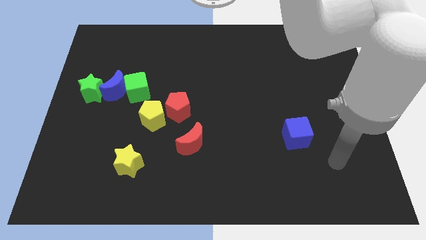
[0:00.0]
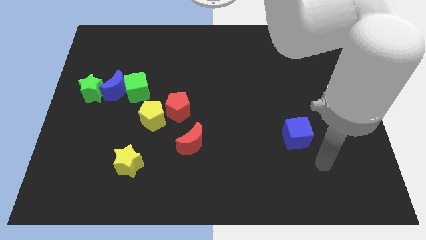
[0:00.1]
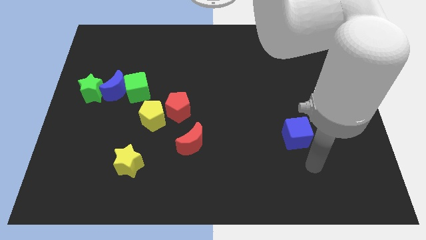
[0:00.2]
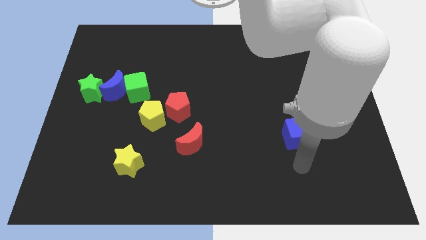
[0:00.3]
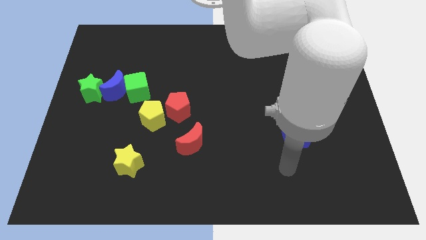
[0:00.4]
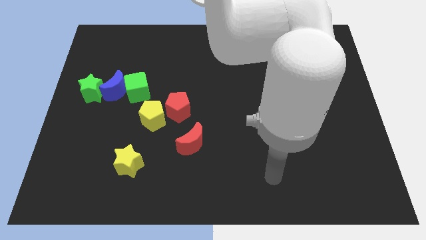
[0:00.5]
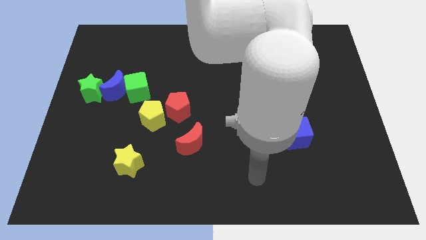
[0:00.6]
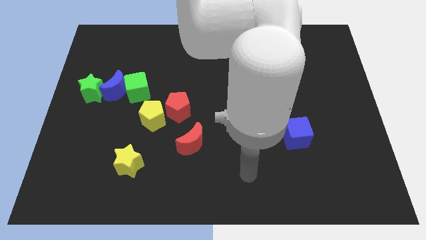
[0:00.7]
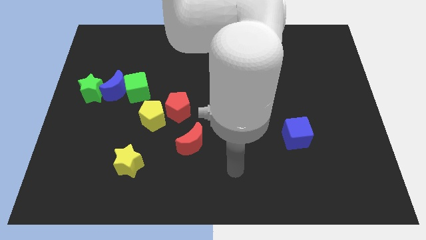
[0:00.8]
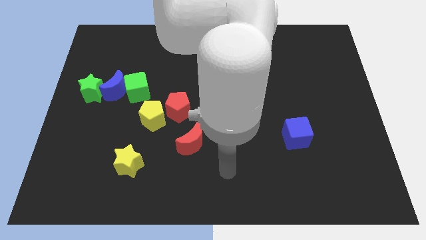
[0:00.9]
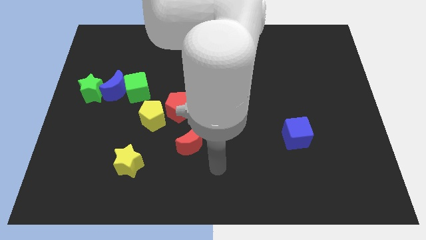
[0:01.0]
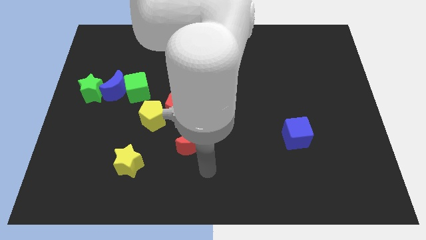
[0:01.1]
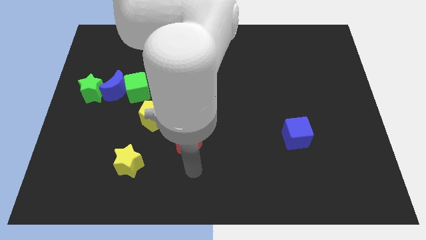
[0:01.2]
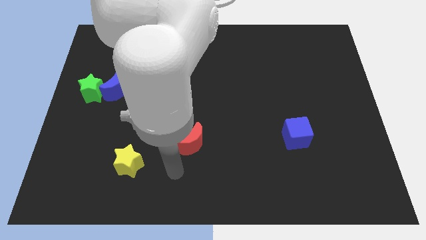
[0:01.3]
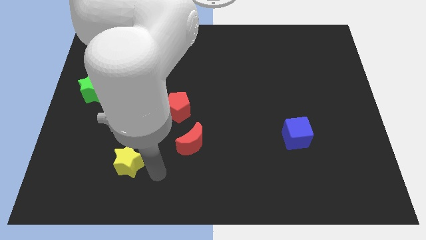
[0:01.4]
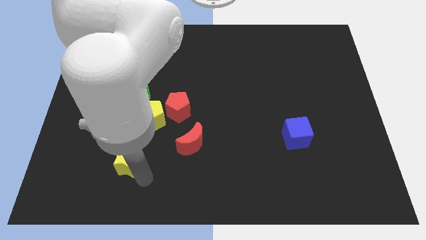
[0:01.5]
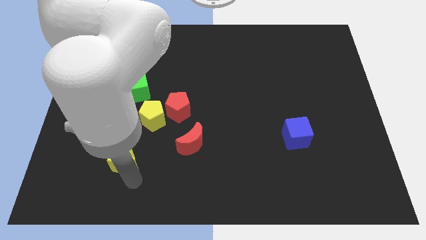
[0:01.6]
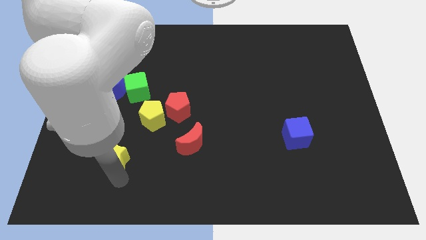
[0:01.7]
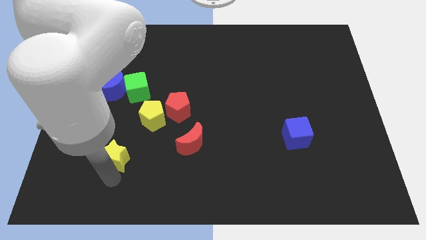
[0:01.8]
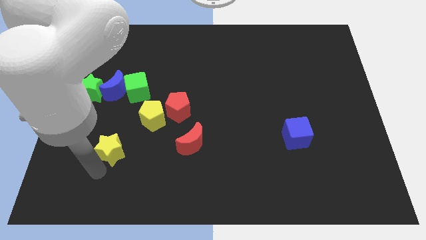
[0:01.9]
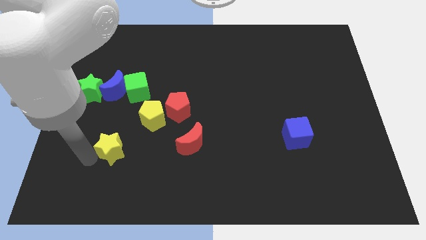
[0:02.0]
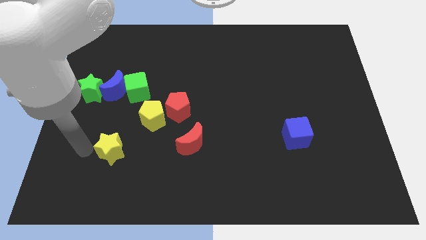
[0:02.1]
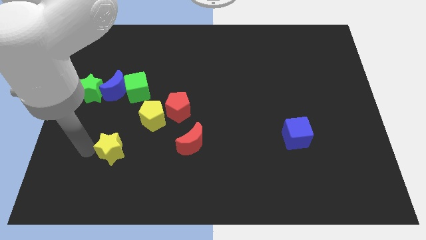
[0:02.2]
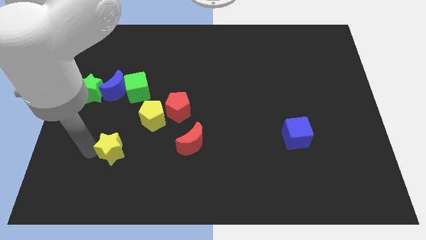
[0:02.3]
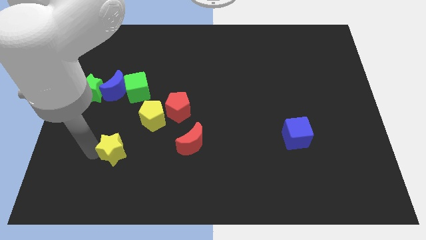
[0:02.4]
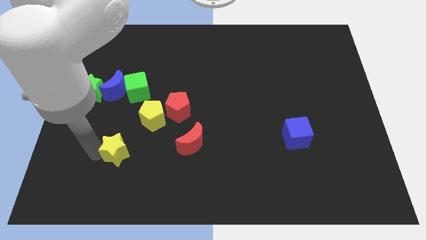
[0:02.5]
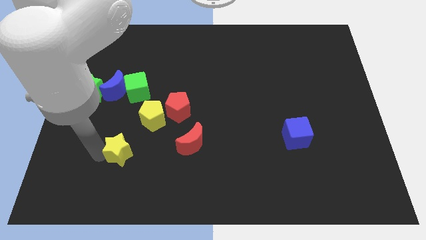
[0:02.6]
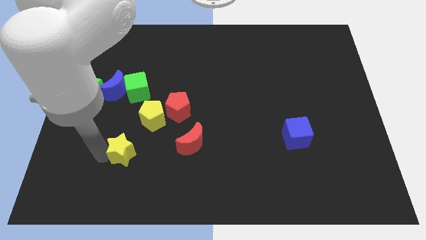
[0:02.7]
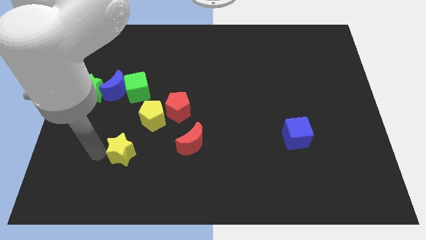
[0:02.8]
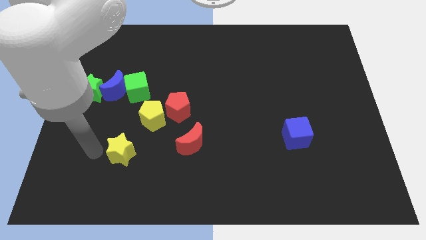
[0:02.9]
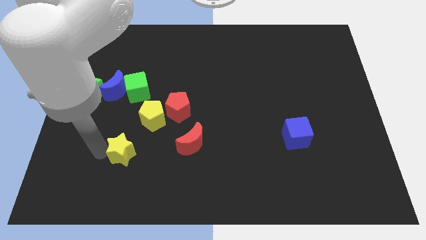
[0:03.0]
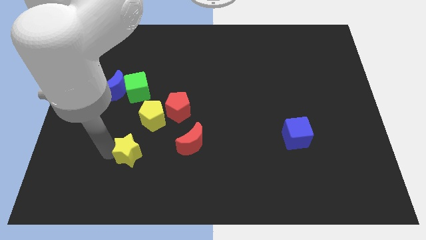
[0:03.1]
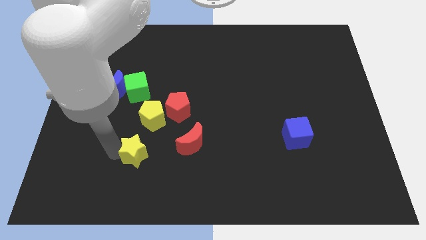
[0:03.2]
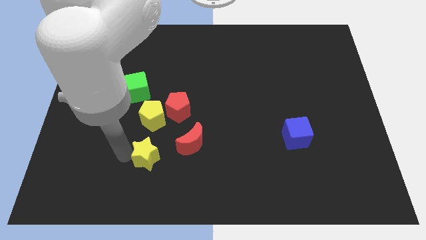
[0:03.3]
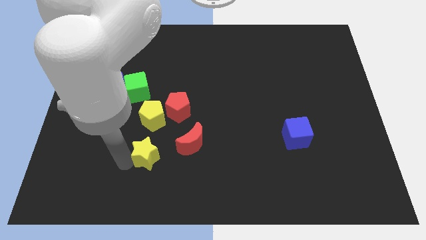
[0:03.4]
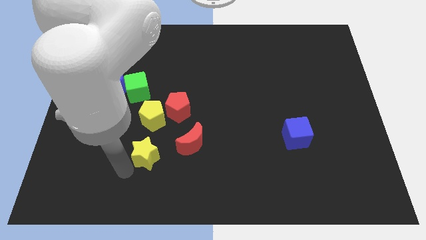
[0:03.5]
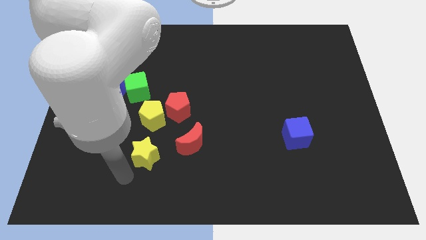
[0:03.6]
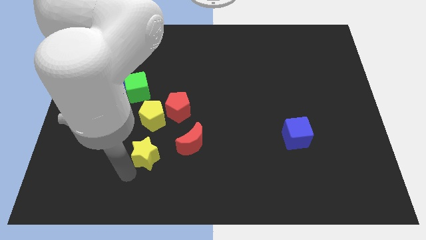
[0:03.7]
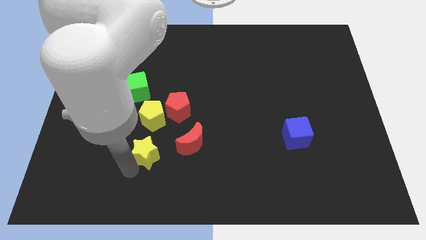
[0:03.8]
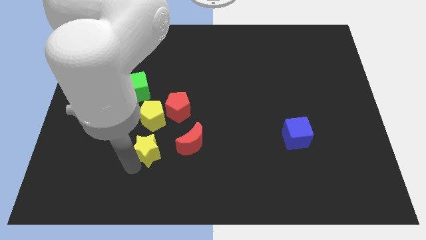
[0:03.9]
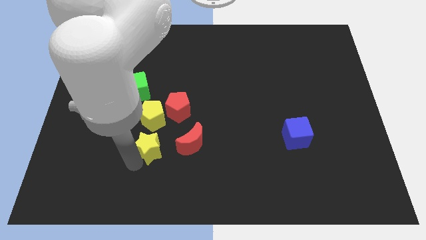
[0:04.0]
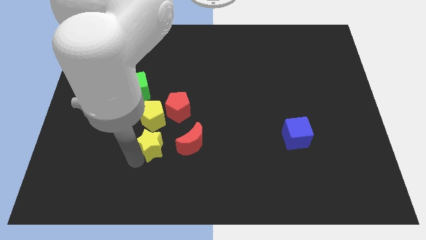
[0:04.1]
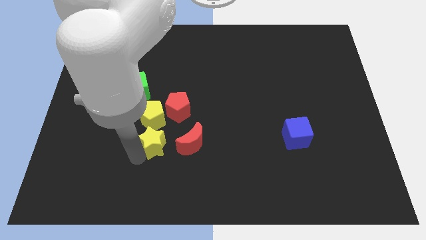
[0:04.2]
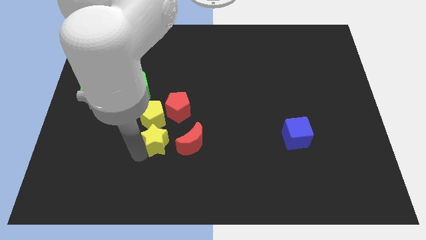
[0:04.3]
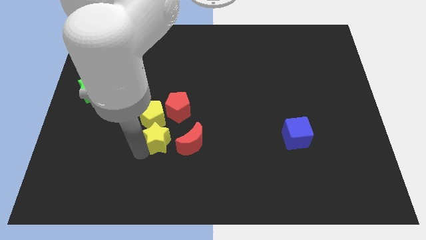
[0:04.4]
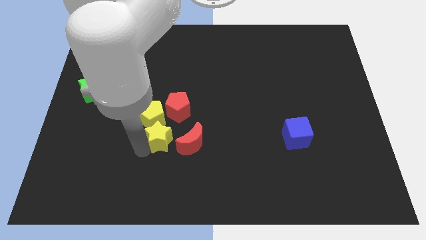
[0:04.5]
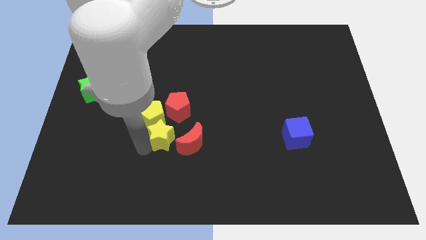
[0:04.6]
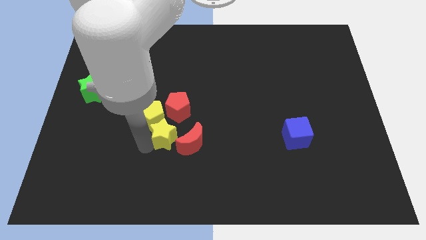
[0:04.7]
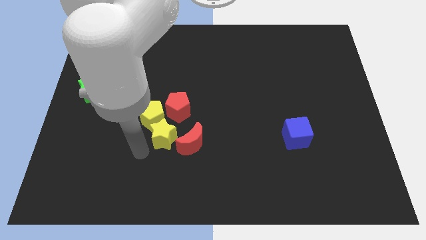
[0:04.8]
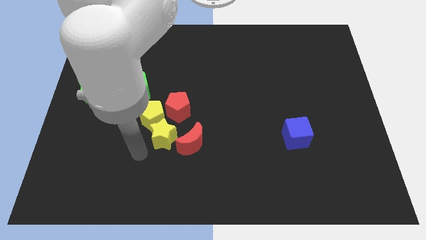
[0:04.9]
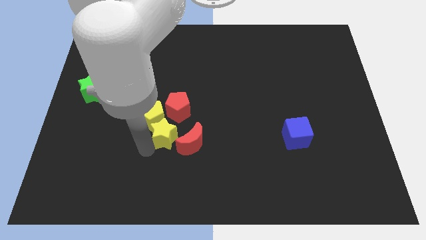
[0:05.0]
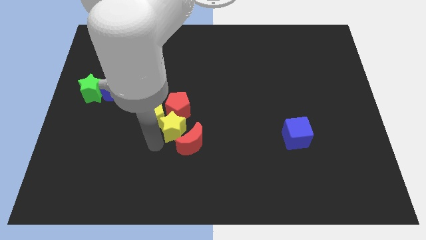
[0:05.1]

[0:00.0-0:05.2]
push the yellow star to the right of the yellow pentagon

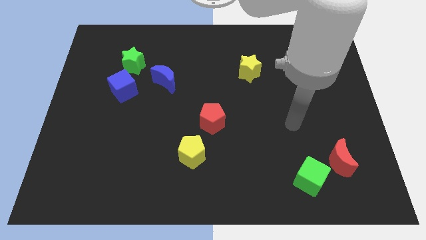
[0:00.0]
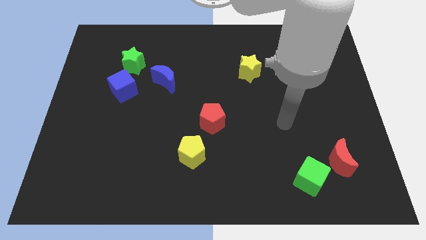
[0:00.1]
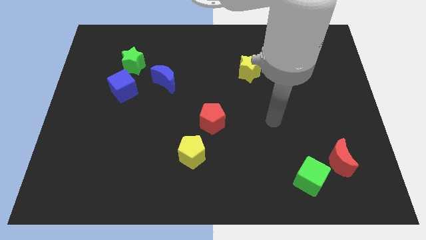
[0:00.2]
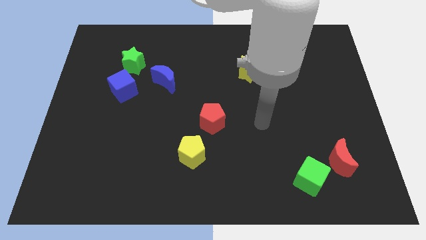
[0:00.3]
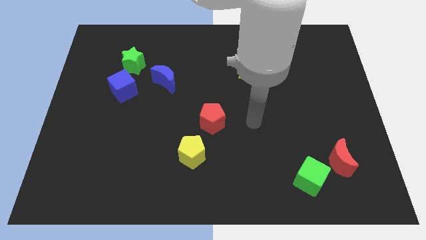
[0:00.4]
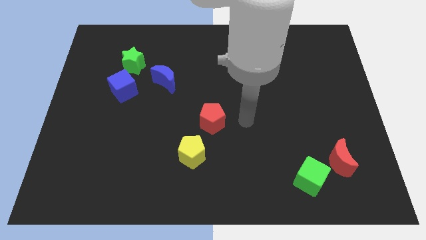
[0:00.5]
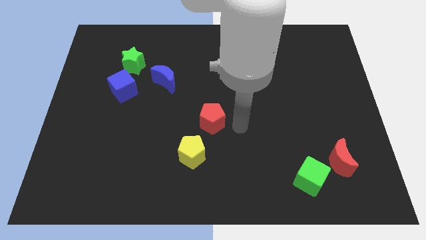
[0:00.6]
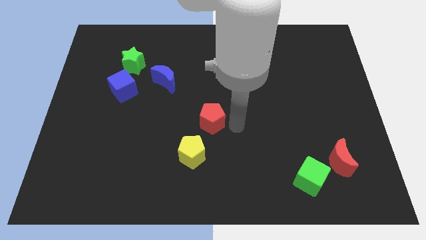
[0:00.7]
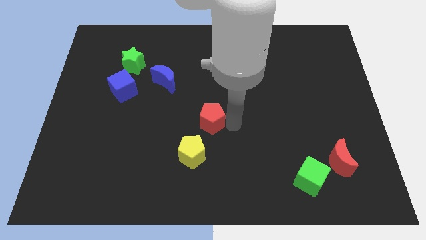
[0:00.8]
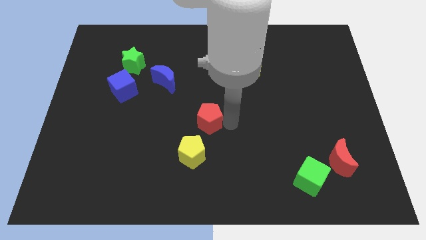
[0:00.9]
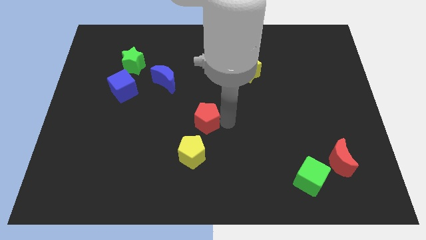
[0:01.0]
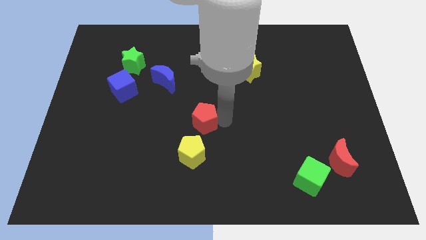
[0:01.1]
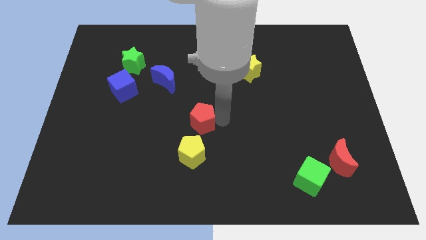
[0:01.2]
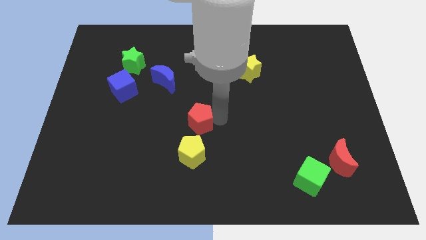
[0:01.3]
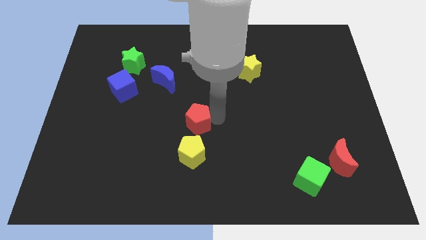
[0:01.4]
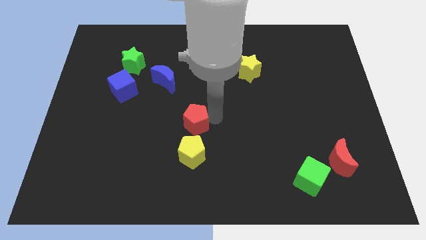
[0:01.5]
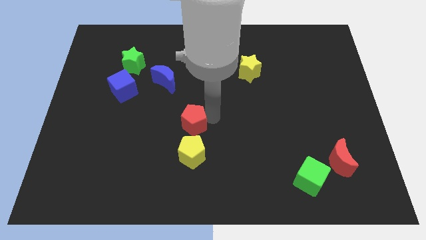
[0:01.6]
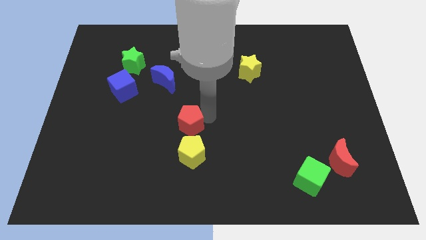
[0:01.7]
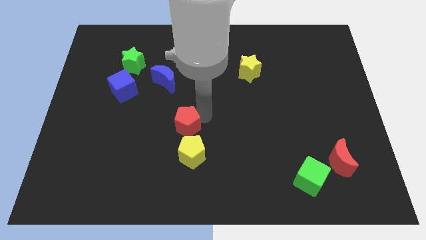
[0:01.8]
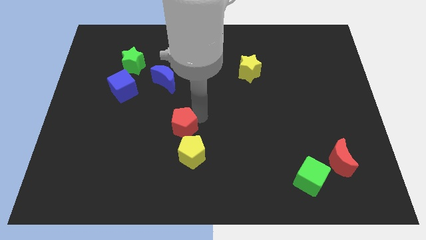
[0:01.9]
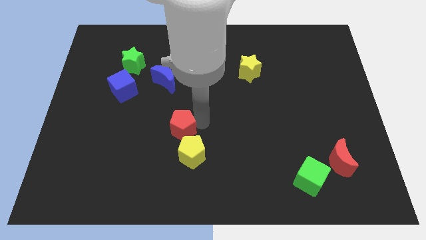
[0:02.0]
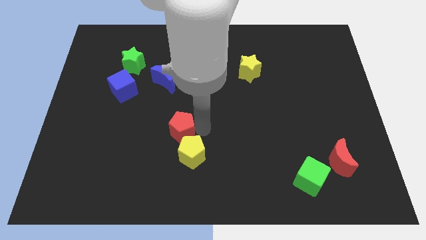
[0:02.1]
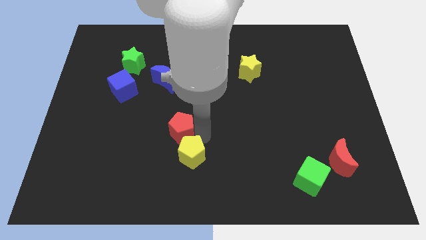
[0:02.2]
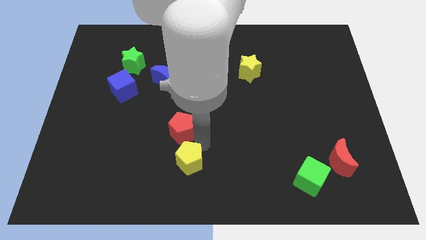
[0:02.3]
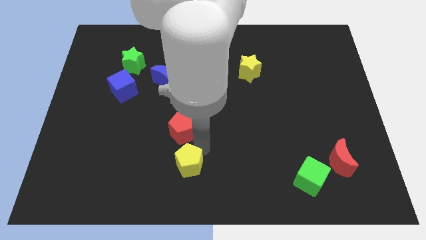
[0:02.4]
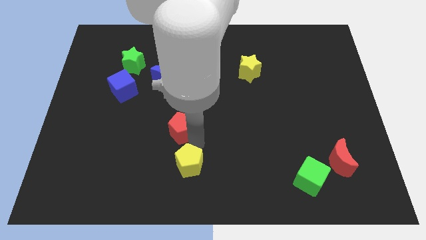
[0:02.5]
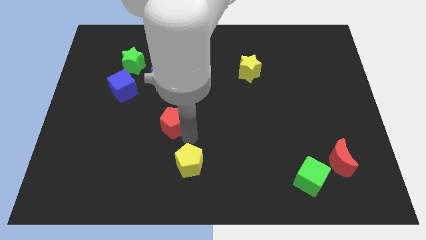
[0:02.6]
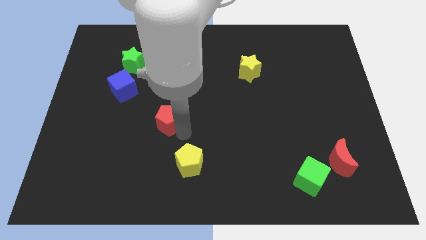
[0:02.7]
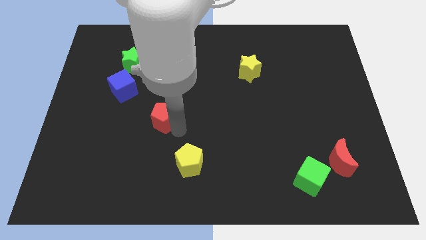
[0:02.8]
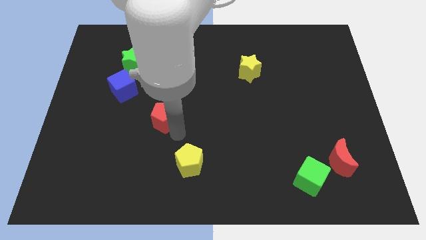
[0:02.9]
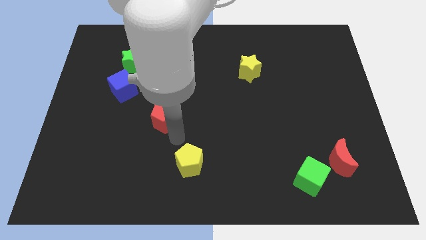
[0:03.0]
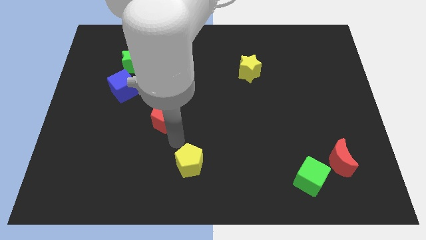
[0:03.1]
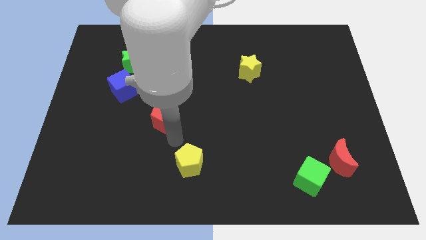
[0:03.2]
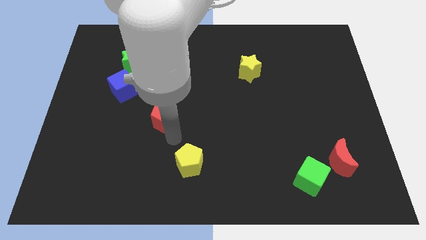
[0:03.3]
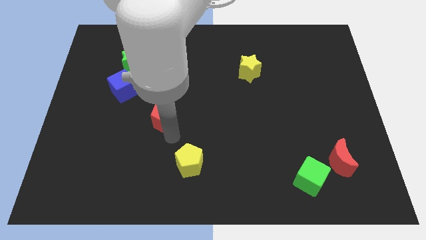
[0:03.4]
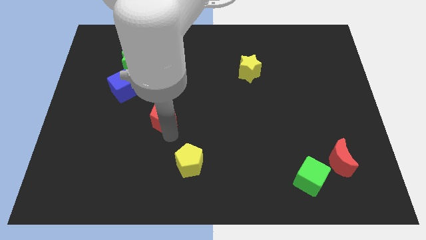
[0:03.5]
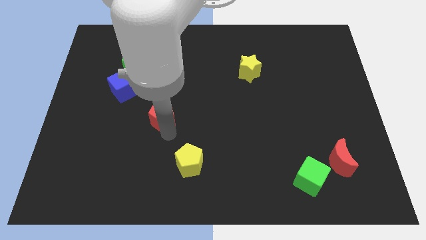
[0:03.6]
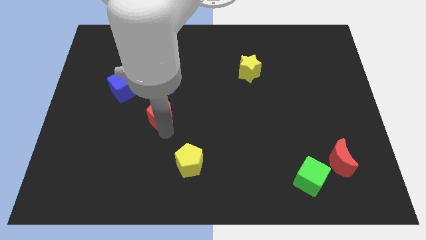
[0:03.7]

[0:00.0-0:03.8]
put the red pentagon diagonally down and to the right of the blue cube
